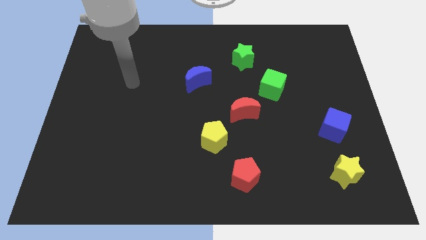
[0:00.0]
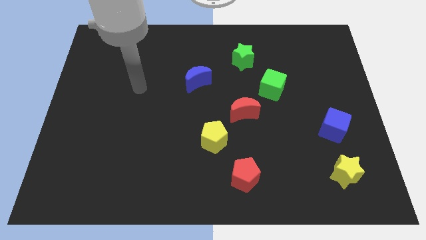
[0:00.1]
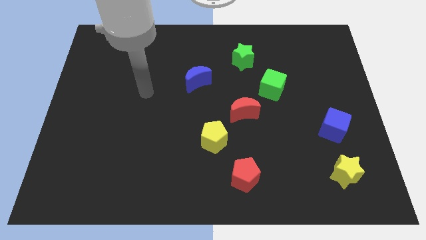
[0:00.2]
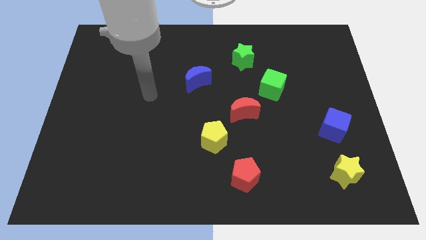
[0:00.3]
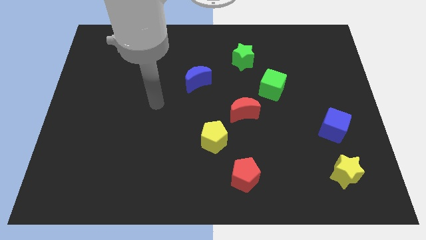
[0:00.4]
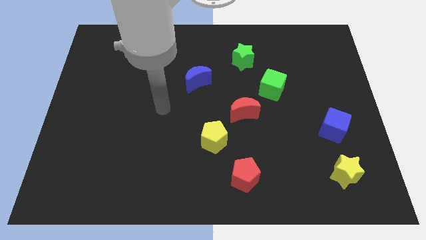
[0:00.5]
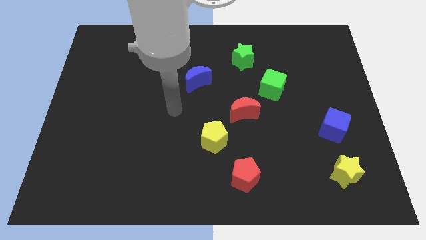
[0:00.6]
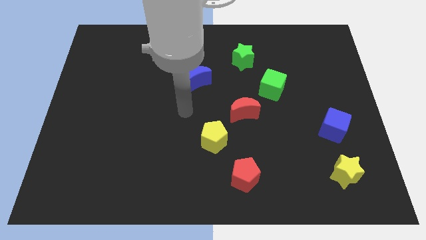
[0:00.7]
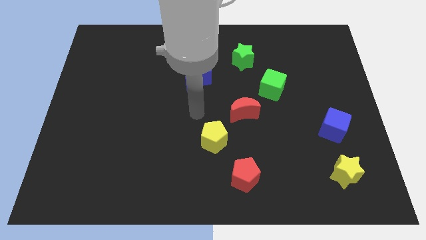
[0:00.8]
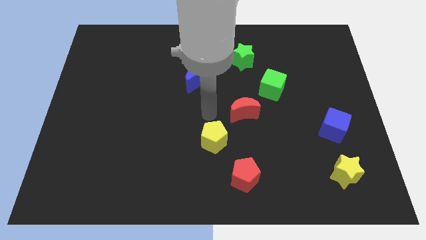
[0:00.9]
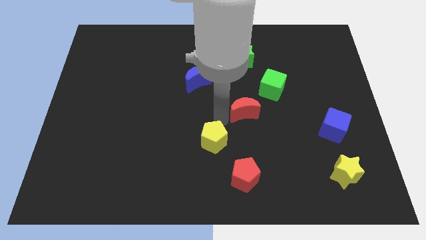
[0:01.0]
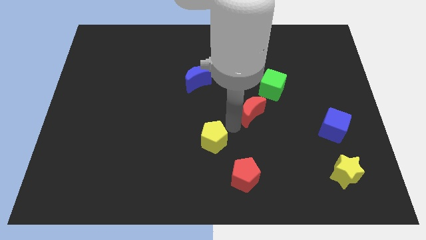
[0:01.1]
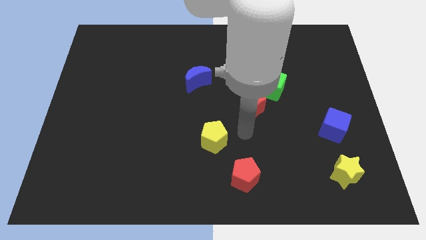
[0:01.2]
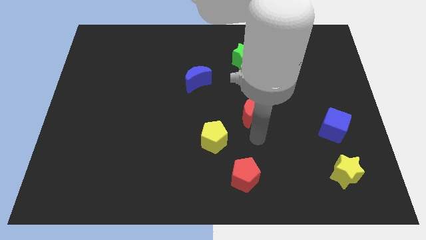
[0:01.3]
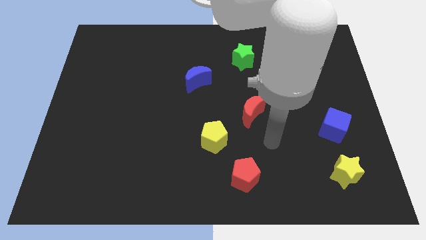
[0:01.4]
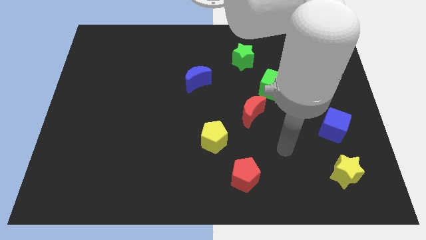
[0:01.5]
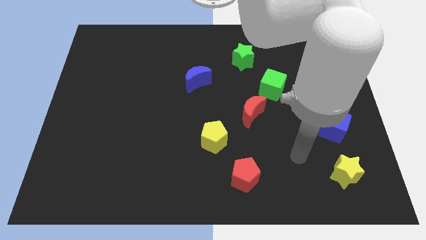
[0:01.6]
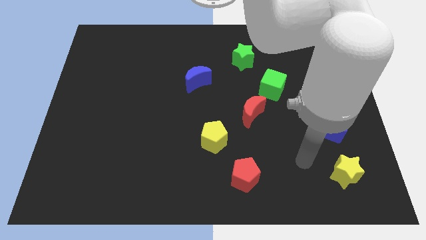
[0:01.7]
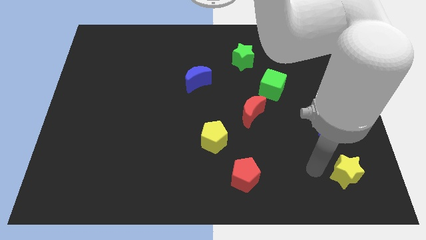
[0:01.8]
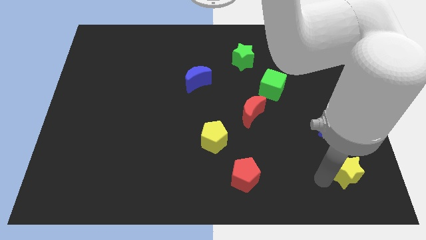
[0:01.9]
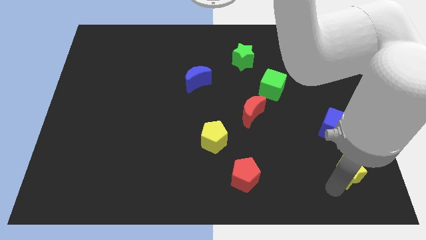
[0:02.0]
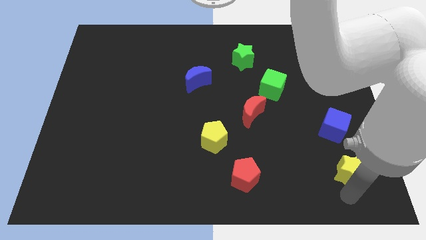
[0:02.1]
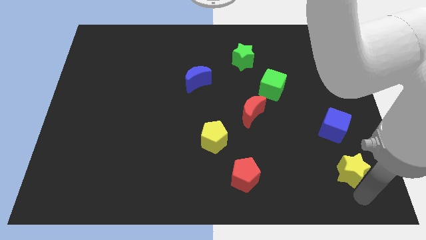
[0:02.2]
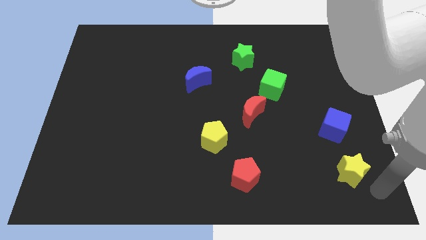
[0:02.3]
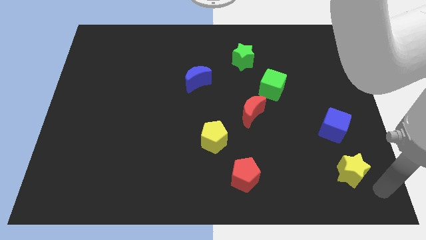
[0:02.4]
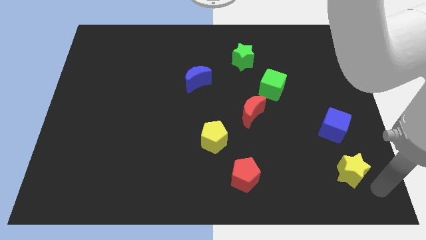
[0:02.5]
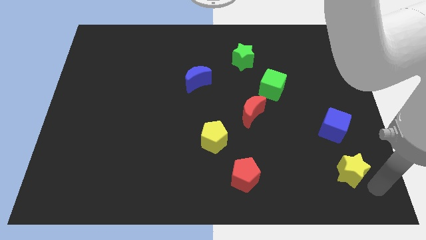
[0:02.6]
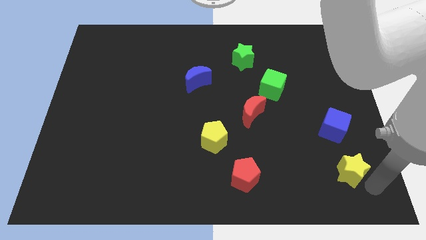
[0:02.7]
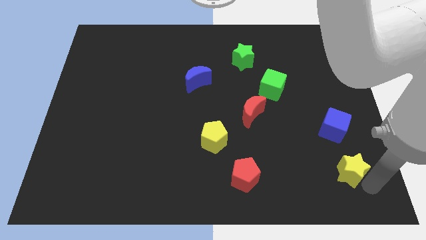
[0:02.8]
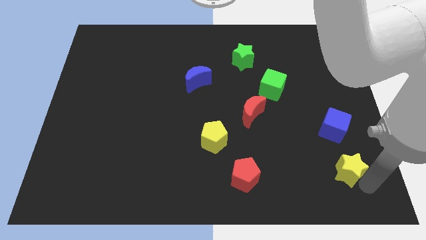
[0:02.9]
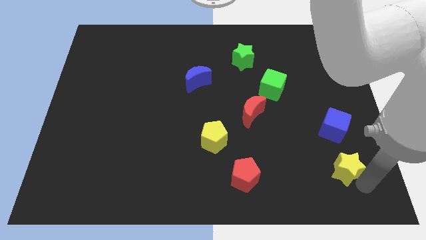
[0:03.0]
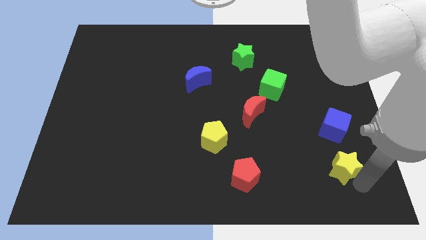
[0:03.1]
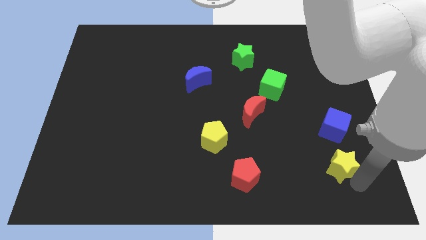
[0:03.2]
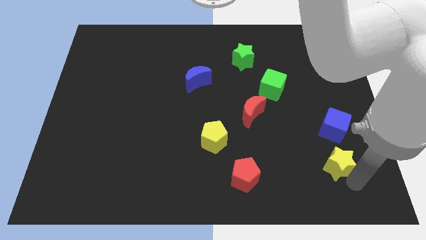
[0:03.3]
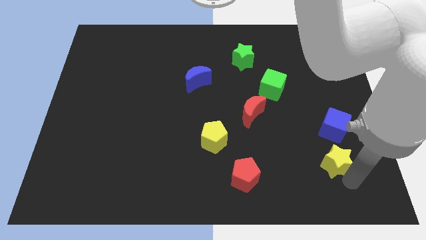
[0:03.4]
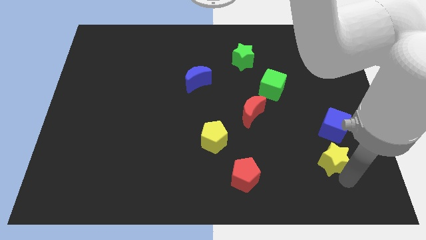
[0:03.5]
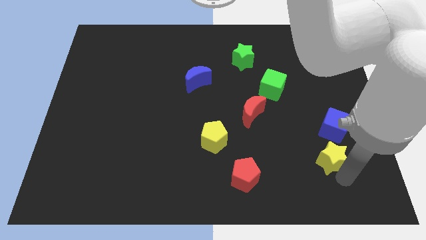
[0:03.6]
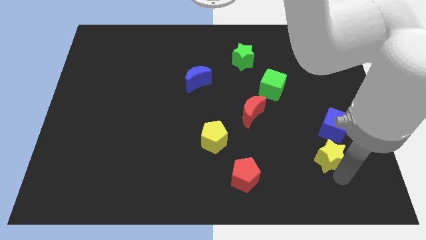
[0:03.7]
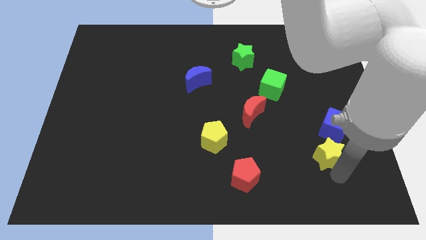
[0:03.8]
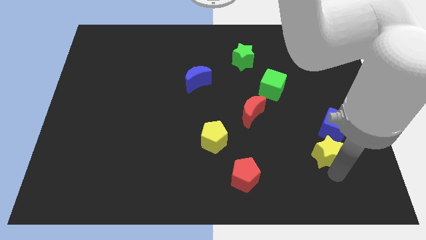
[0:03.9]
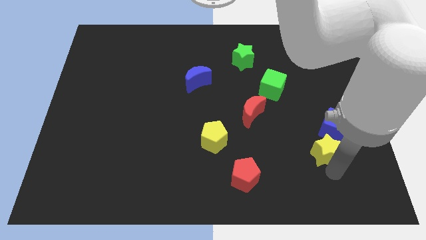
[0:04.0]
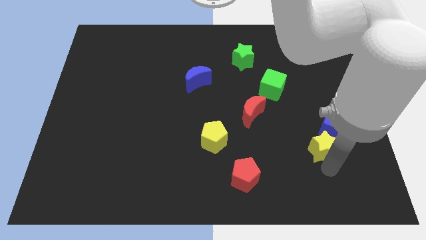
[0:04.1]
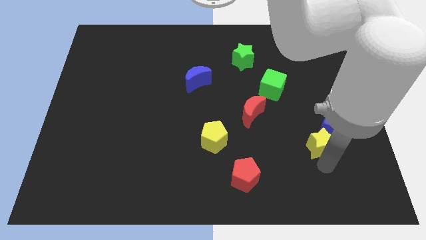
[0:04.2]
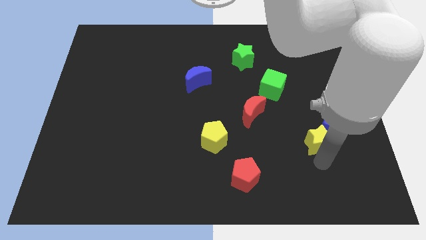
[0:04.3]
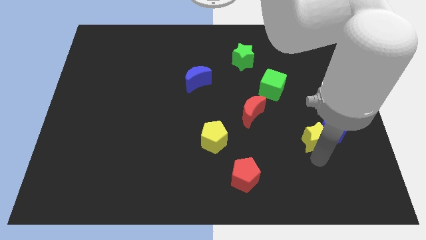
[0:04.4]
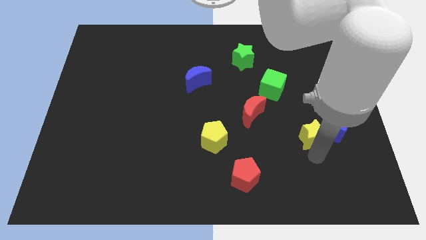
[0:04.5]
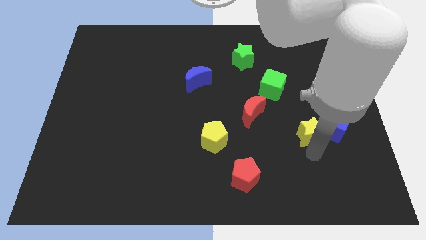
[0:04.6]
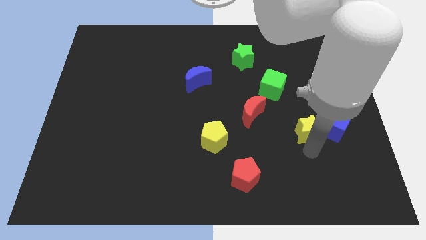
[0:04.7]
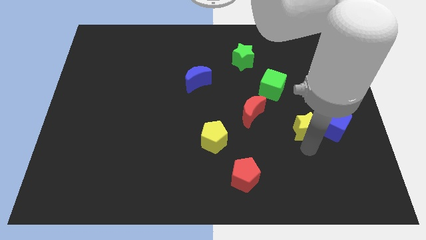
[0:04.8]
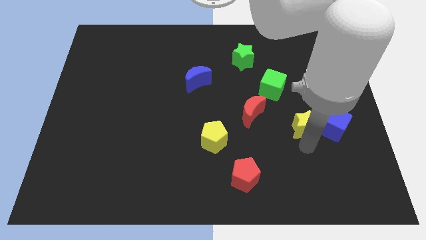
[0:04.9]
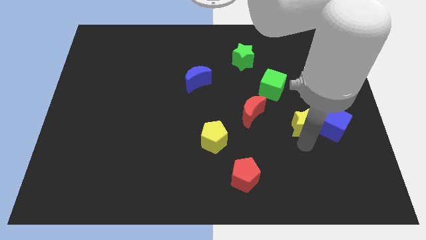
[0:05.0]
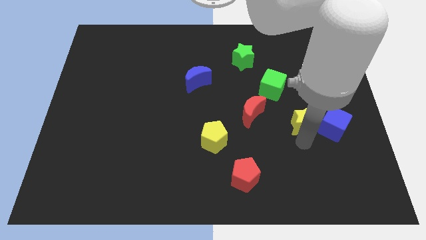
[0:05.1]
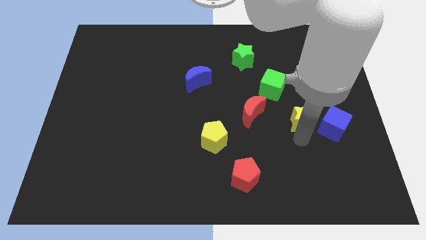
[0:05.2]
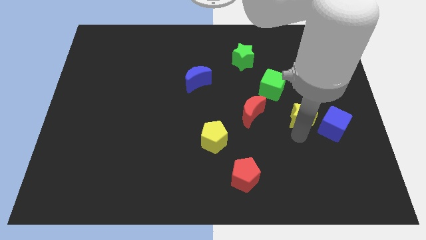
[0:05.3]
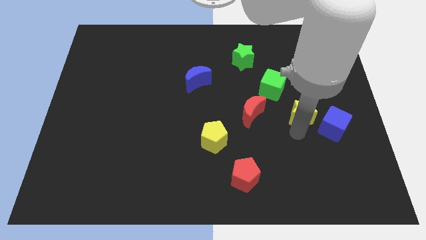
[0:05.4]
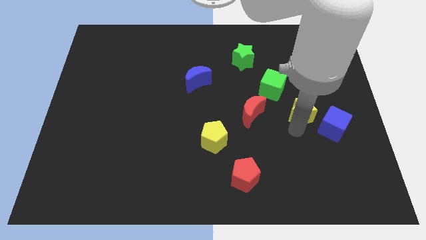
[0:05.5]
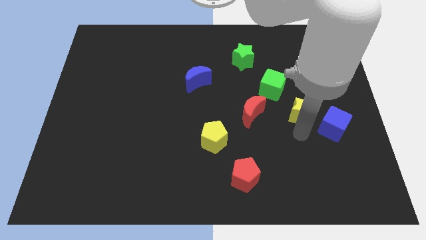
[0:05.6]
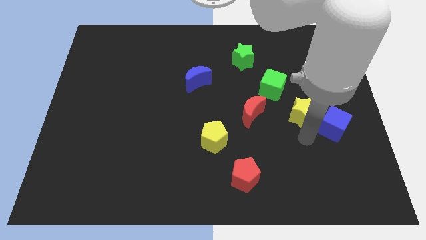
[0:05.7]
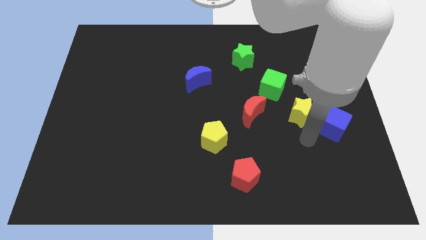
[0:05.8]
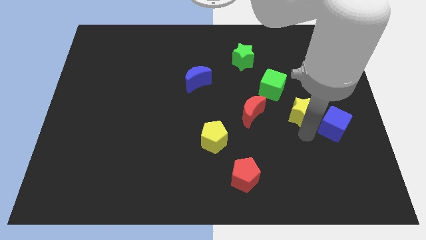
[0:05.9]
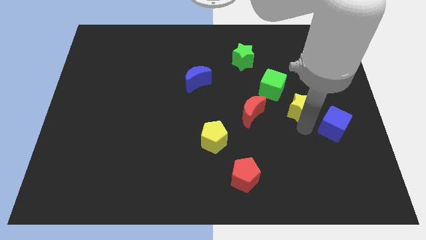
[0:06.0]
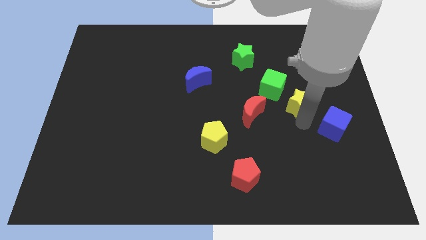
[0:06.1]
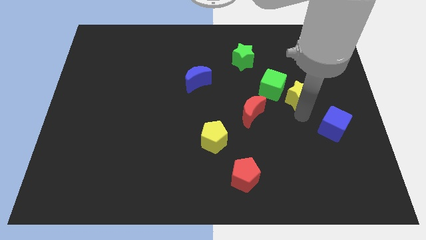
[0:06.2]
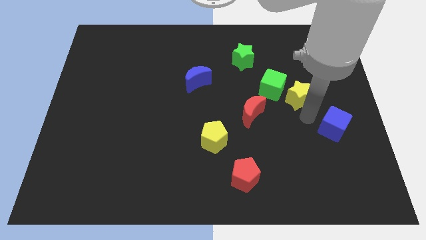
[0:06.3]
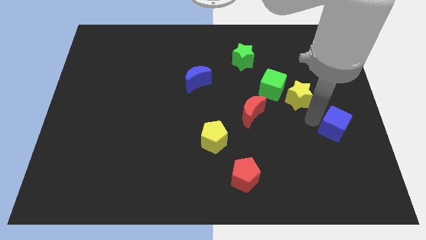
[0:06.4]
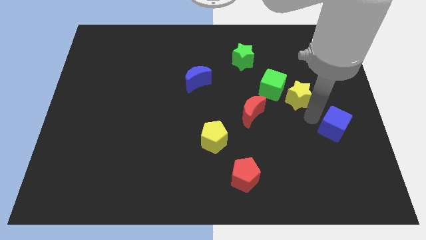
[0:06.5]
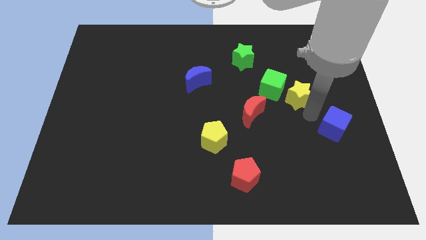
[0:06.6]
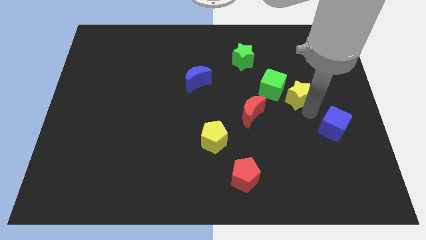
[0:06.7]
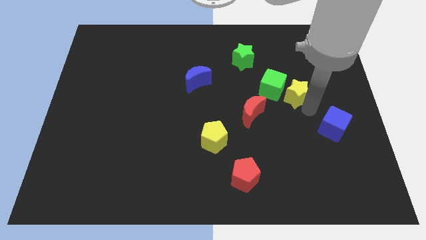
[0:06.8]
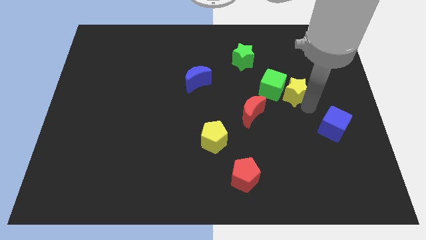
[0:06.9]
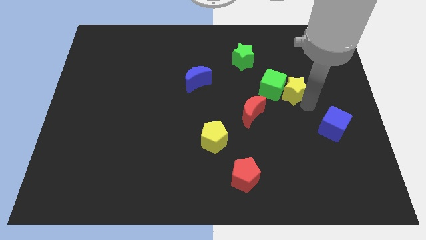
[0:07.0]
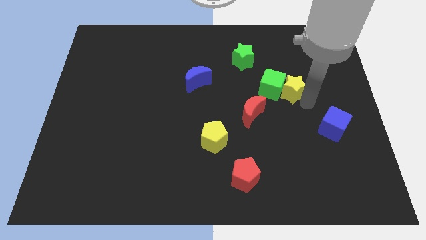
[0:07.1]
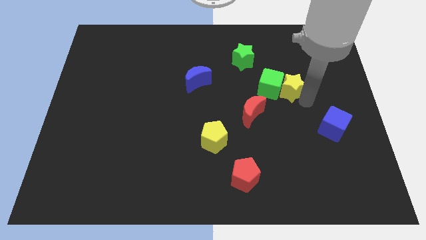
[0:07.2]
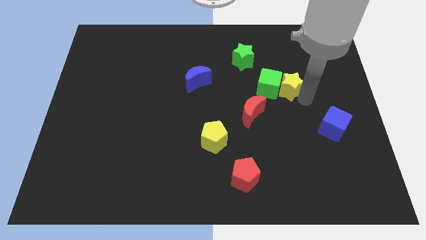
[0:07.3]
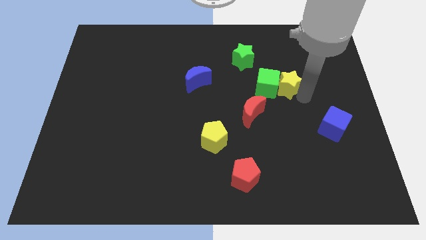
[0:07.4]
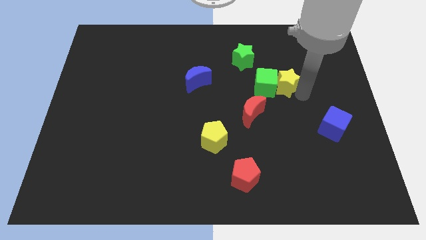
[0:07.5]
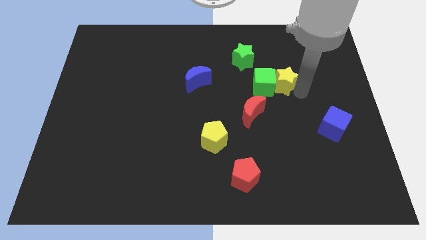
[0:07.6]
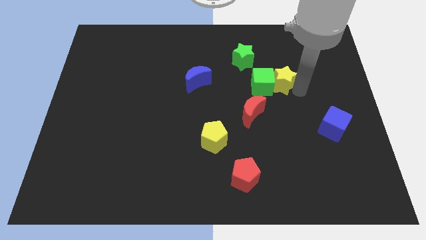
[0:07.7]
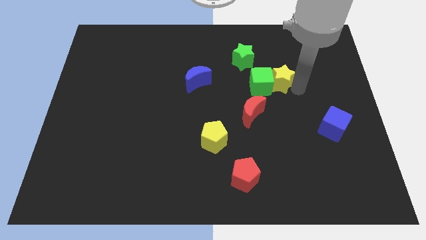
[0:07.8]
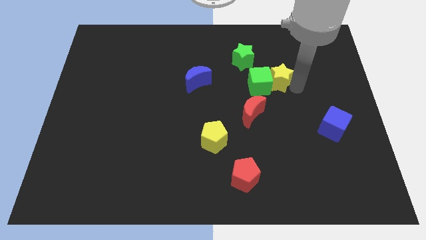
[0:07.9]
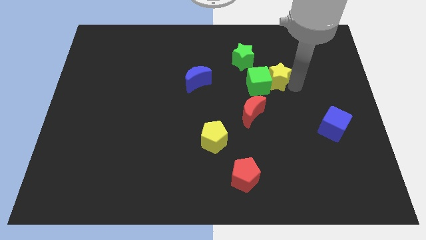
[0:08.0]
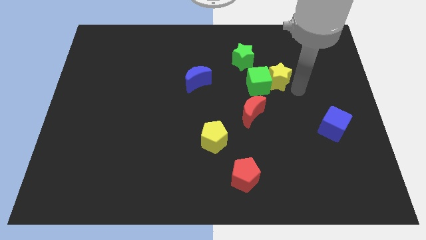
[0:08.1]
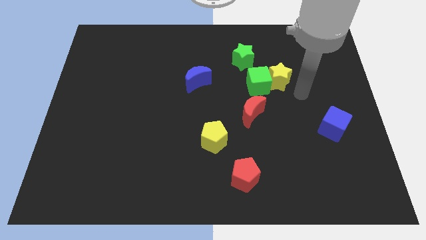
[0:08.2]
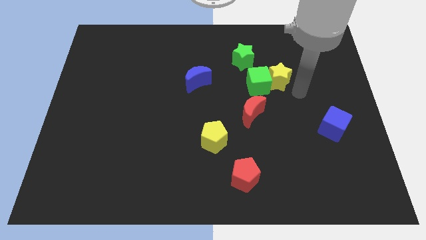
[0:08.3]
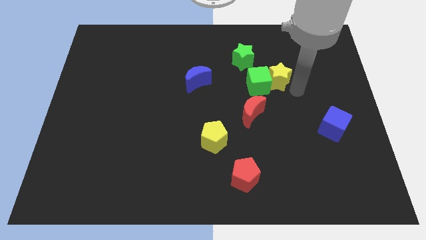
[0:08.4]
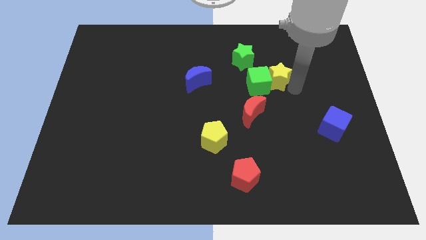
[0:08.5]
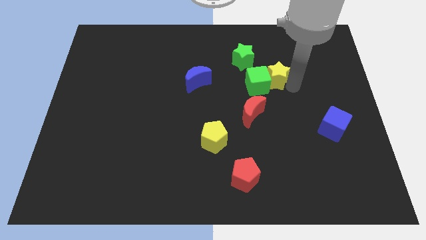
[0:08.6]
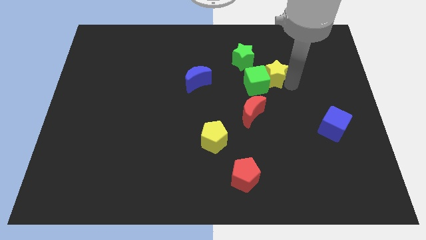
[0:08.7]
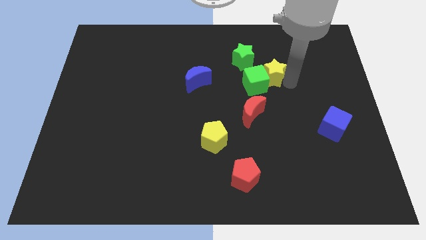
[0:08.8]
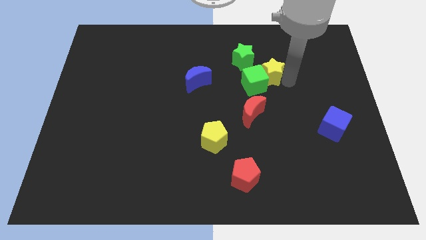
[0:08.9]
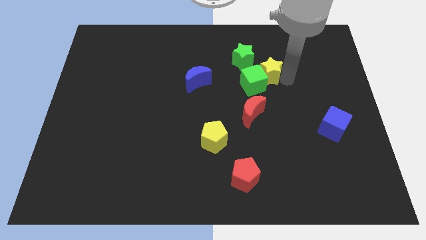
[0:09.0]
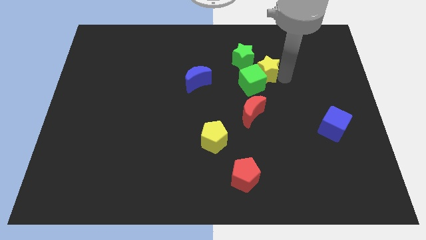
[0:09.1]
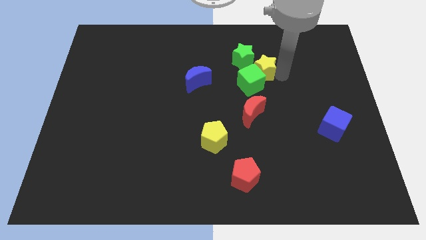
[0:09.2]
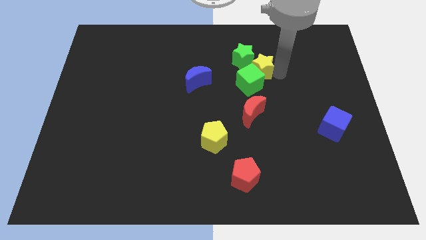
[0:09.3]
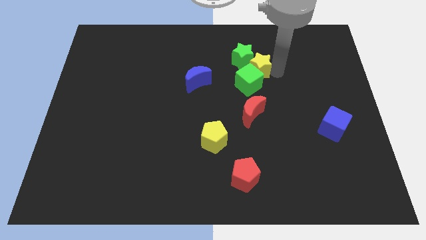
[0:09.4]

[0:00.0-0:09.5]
push the yellow star close to the green star
